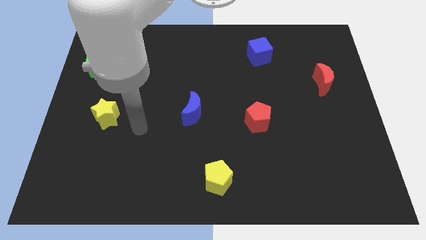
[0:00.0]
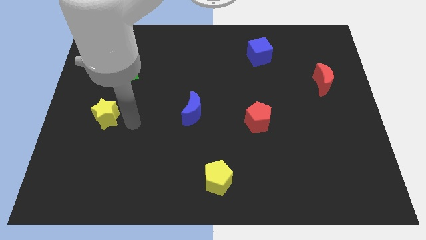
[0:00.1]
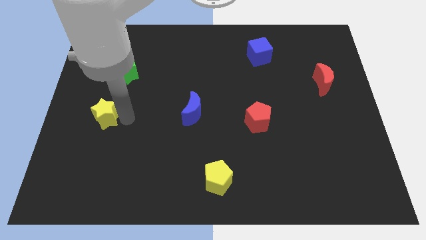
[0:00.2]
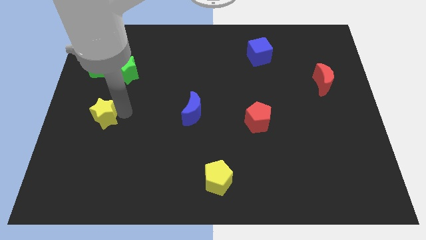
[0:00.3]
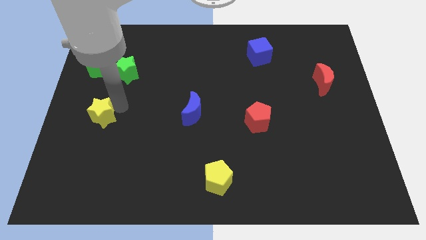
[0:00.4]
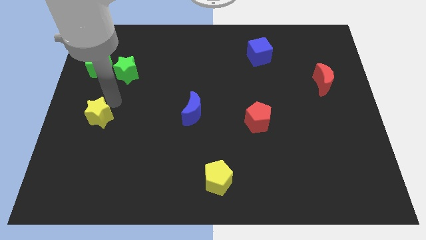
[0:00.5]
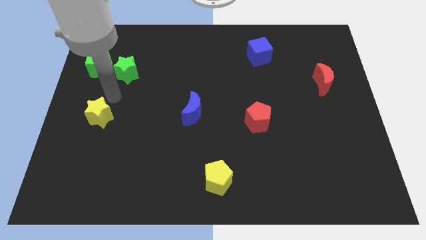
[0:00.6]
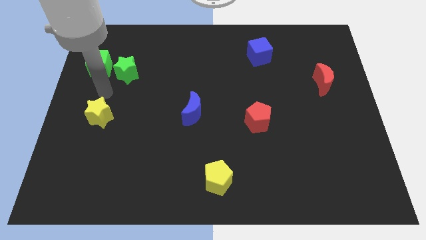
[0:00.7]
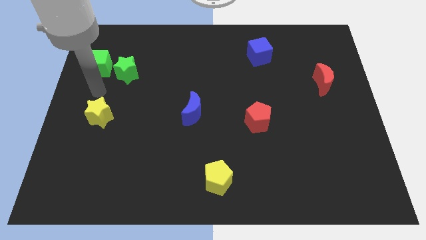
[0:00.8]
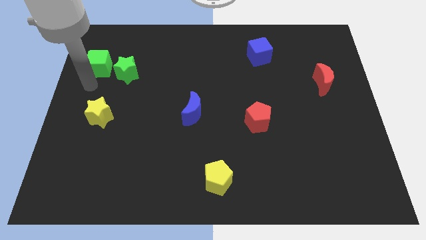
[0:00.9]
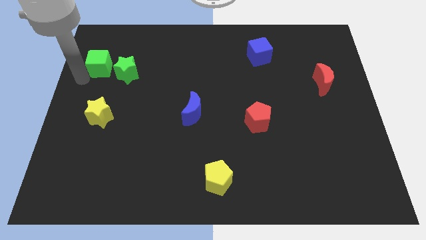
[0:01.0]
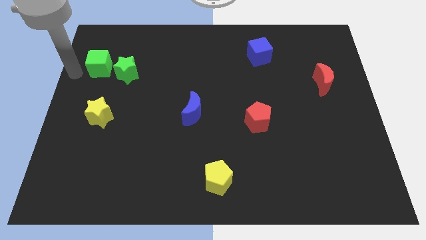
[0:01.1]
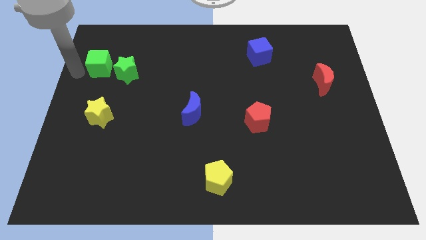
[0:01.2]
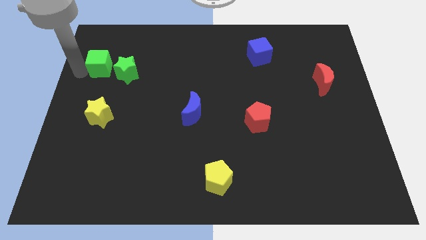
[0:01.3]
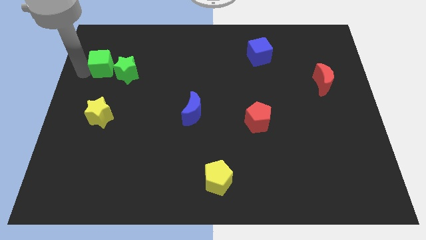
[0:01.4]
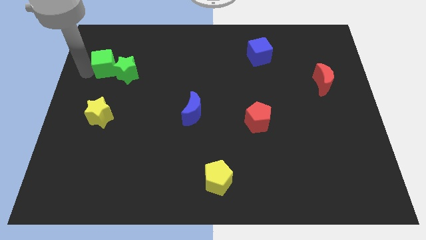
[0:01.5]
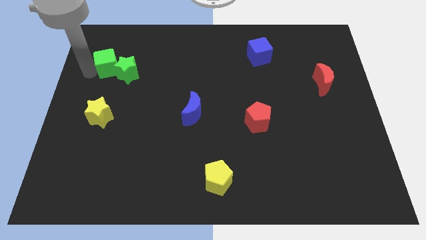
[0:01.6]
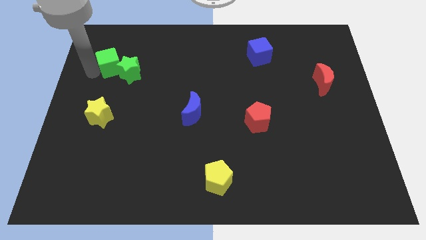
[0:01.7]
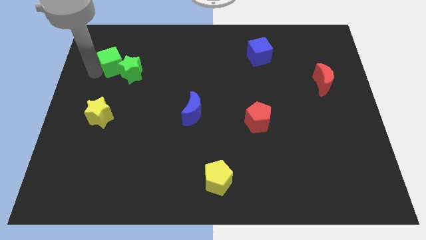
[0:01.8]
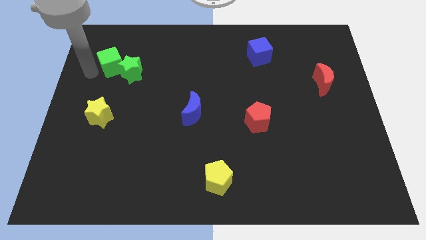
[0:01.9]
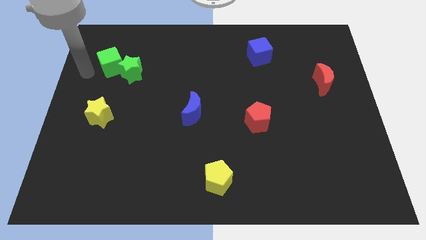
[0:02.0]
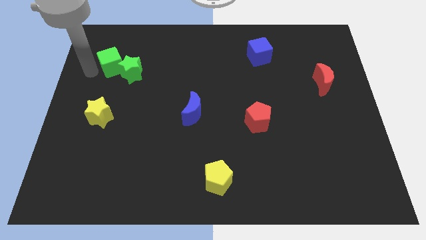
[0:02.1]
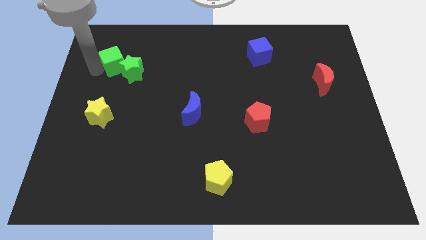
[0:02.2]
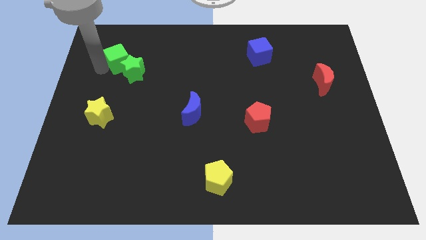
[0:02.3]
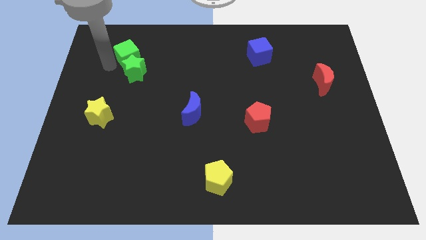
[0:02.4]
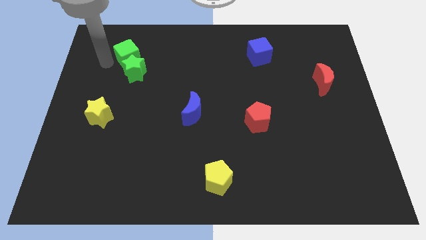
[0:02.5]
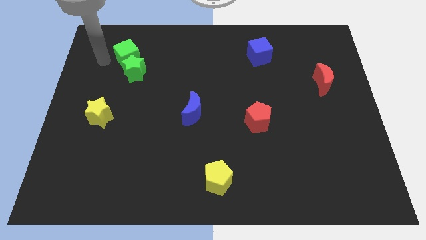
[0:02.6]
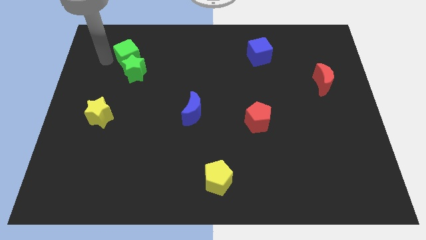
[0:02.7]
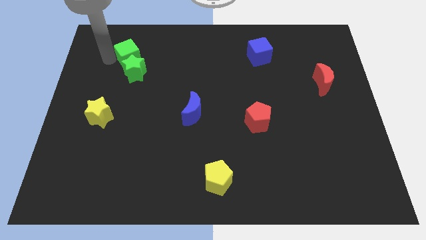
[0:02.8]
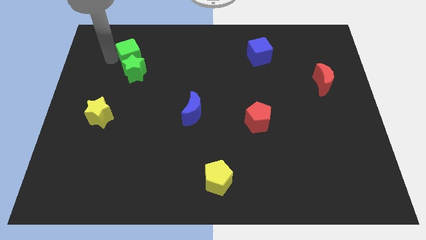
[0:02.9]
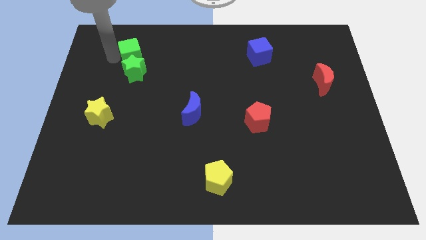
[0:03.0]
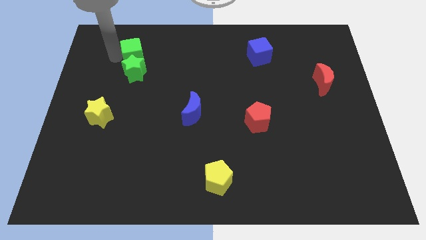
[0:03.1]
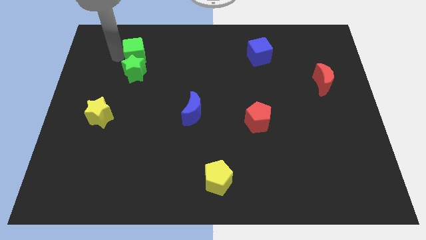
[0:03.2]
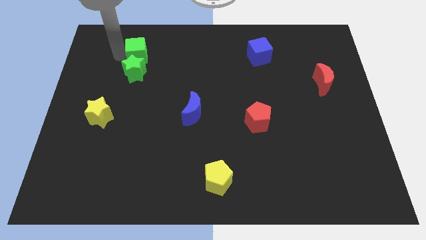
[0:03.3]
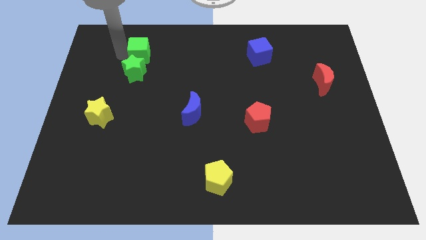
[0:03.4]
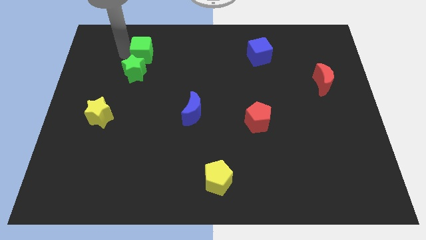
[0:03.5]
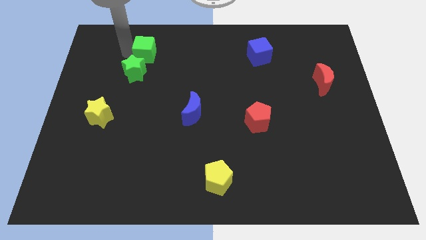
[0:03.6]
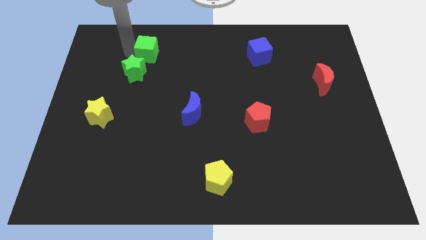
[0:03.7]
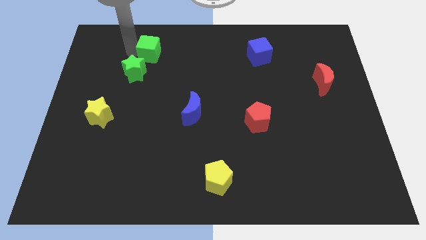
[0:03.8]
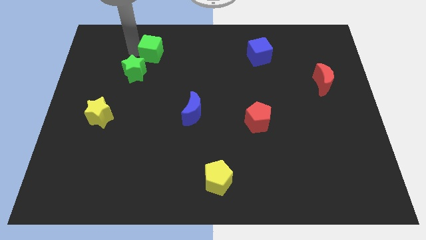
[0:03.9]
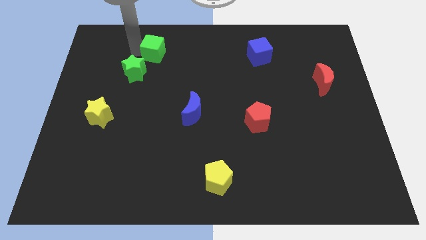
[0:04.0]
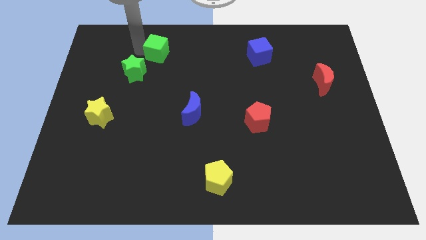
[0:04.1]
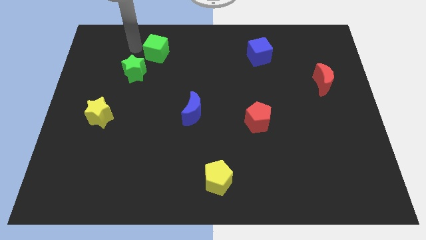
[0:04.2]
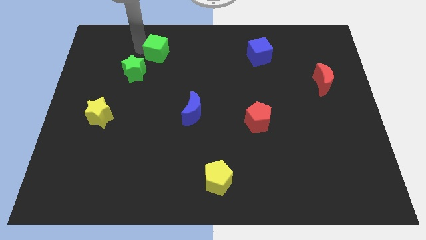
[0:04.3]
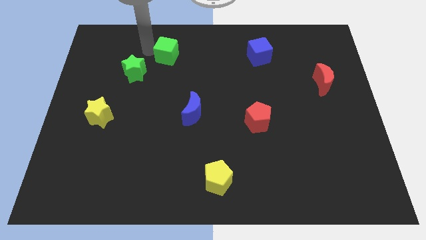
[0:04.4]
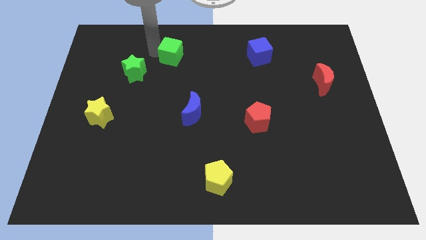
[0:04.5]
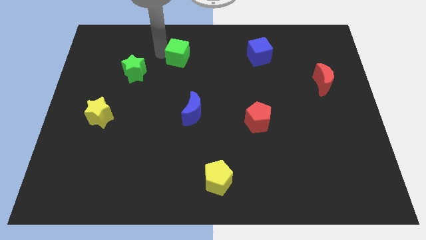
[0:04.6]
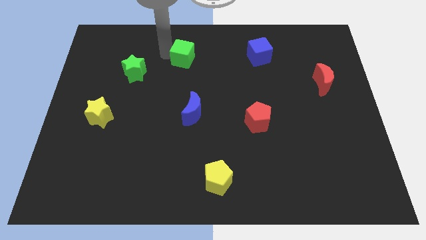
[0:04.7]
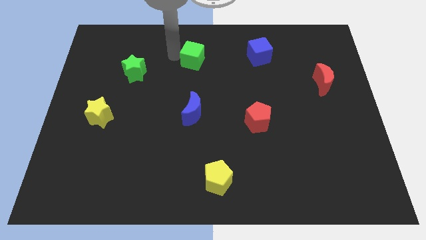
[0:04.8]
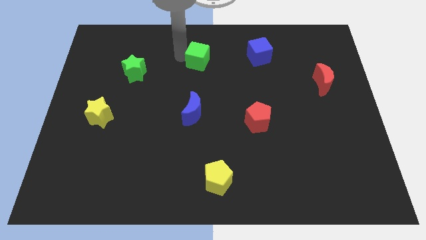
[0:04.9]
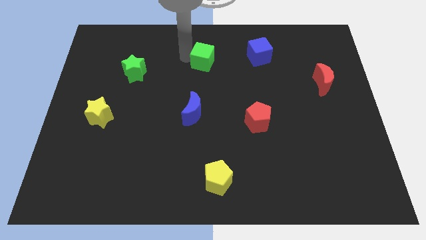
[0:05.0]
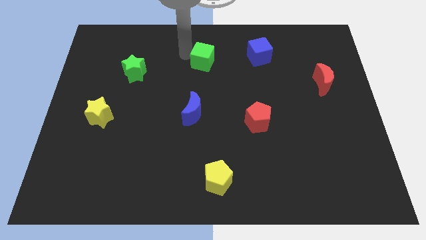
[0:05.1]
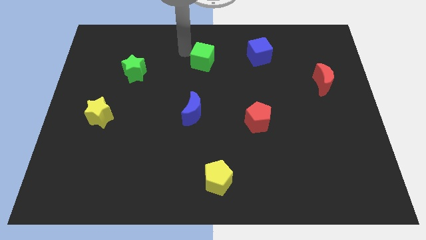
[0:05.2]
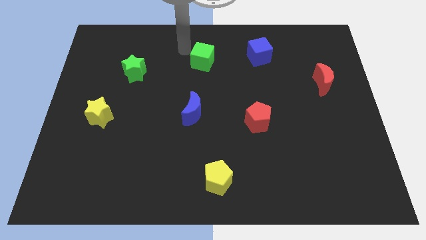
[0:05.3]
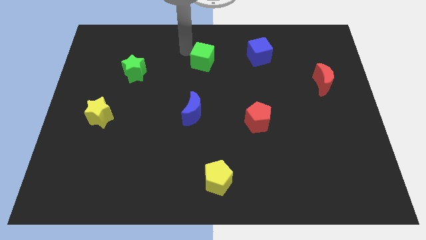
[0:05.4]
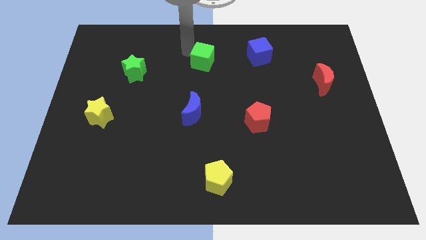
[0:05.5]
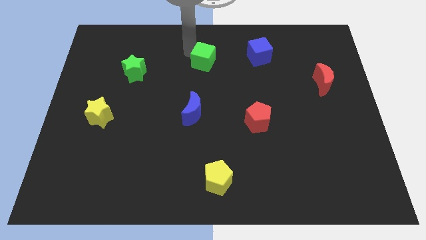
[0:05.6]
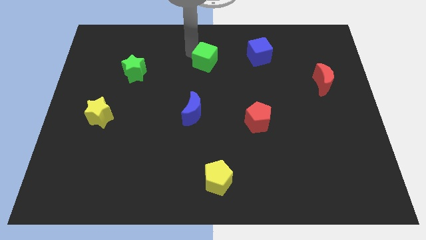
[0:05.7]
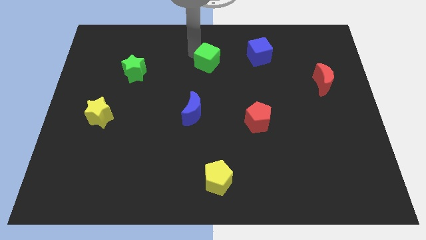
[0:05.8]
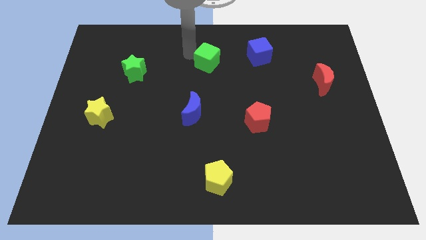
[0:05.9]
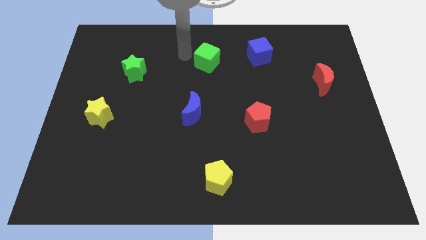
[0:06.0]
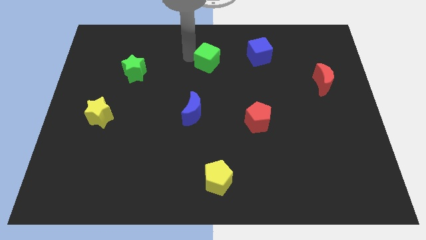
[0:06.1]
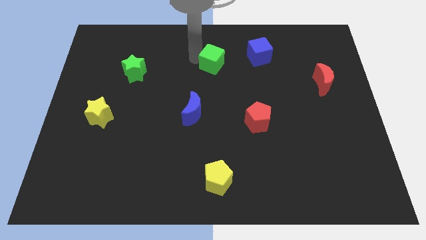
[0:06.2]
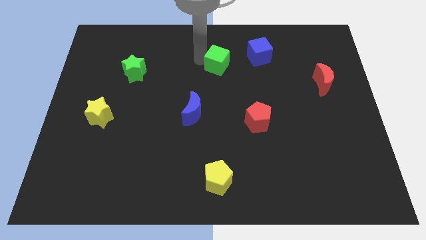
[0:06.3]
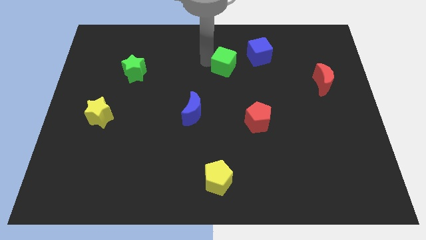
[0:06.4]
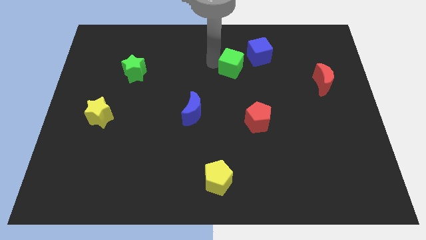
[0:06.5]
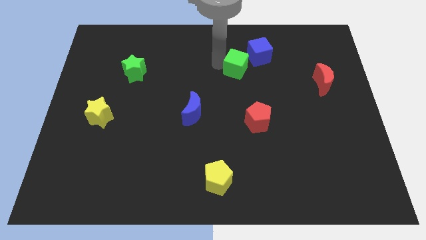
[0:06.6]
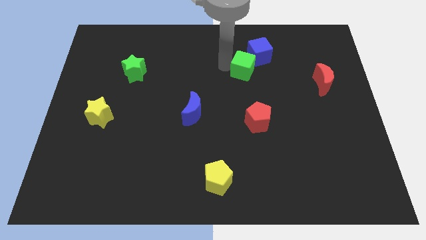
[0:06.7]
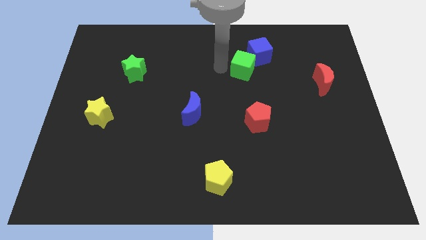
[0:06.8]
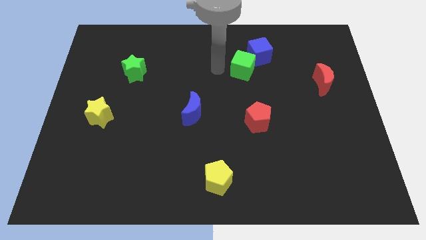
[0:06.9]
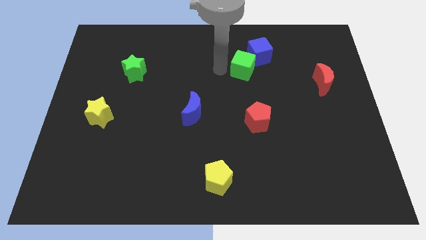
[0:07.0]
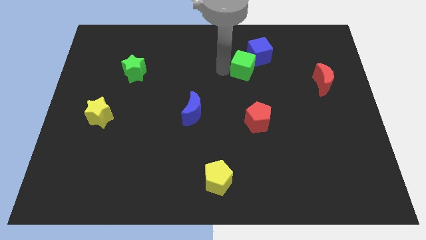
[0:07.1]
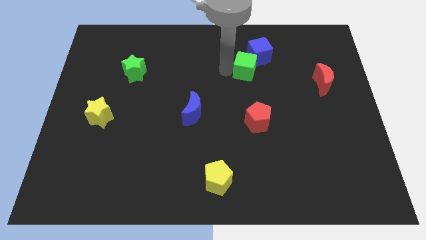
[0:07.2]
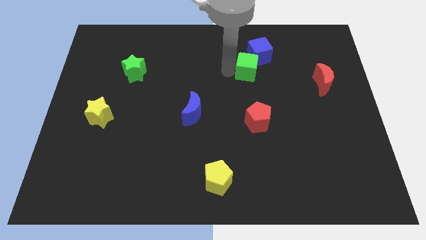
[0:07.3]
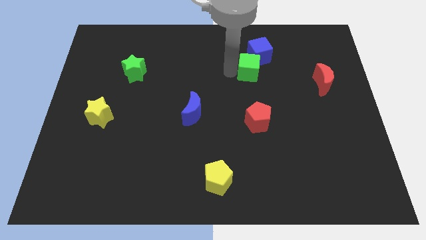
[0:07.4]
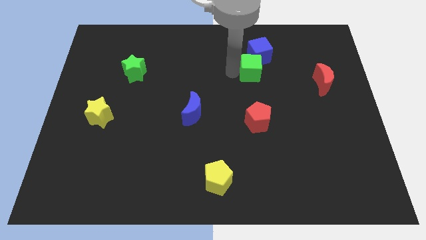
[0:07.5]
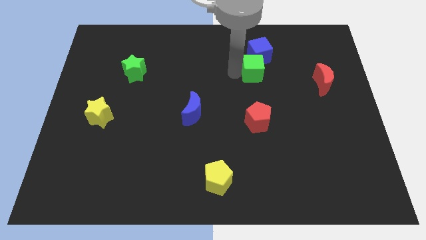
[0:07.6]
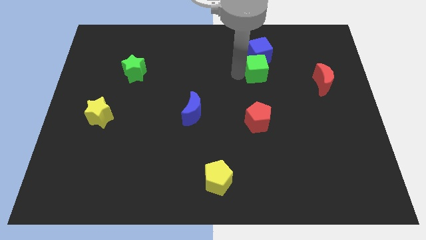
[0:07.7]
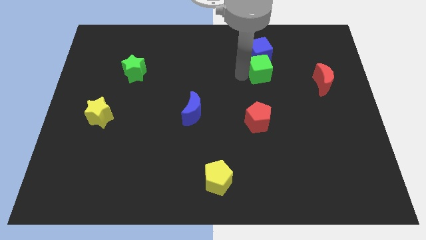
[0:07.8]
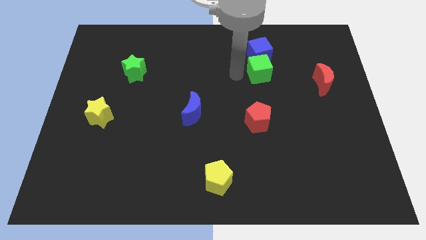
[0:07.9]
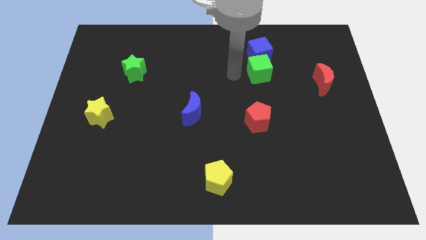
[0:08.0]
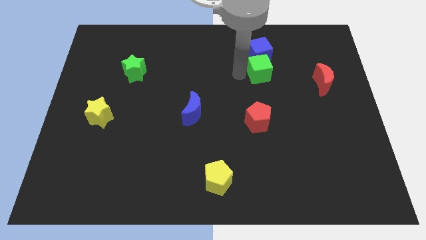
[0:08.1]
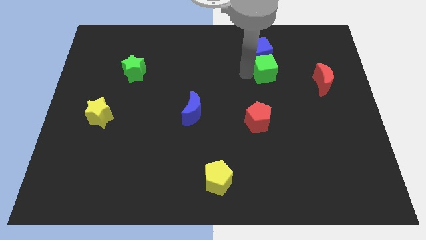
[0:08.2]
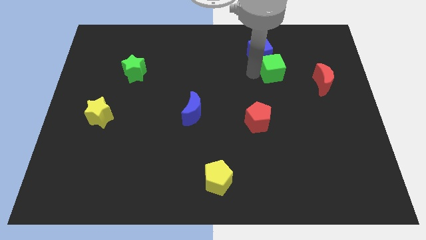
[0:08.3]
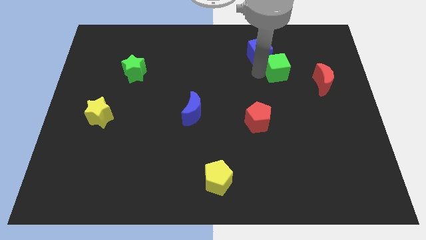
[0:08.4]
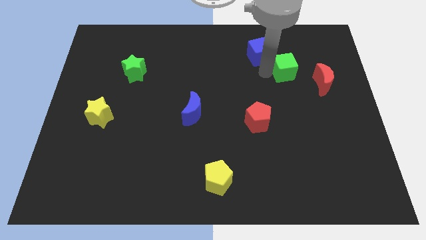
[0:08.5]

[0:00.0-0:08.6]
move the green cube to the top left of the red moon
